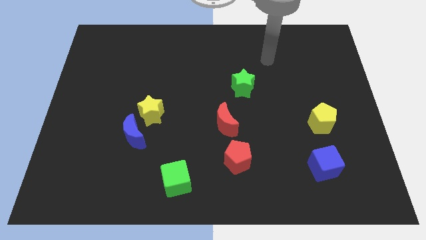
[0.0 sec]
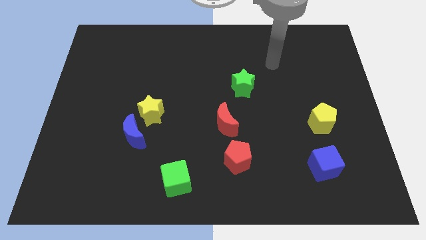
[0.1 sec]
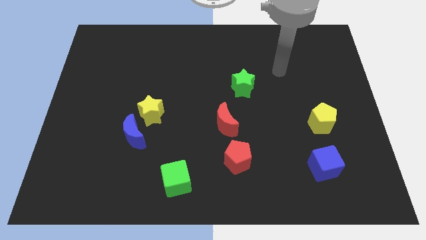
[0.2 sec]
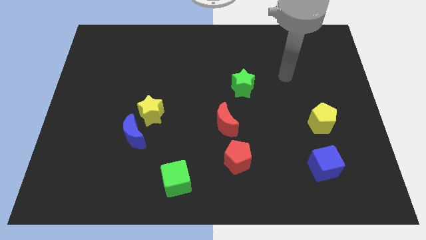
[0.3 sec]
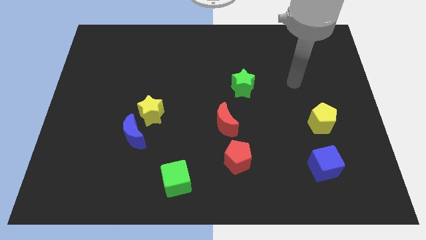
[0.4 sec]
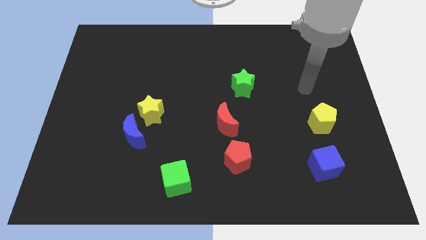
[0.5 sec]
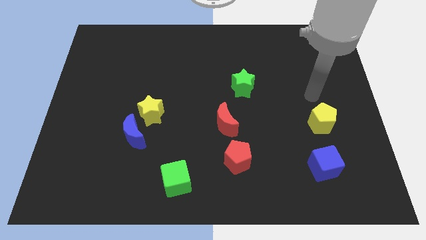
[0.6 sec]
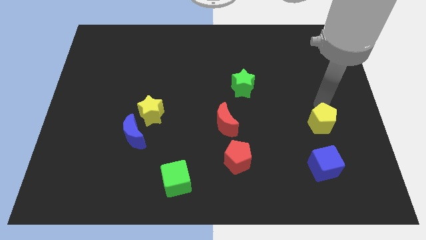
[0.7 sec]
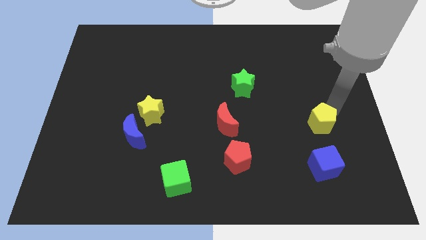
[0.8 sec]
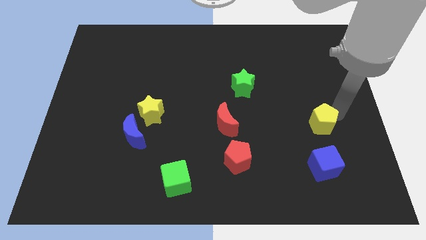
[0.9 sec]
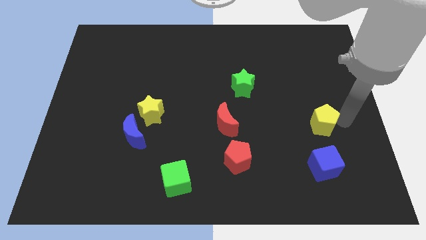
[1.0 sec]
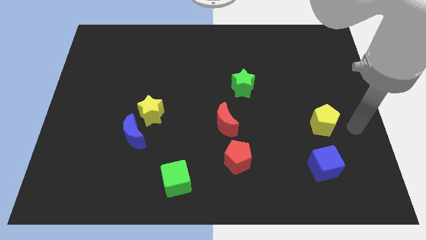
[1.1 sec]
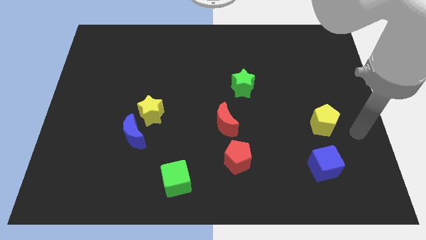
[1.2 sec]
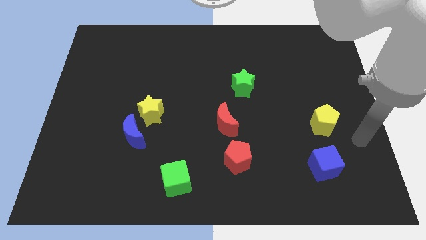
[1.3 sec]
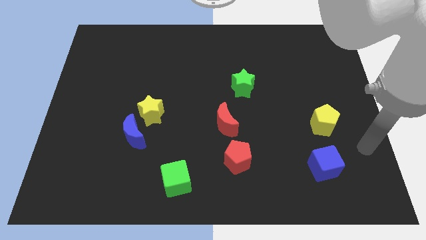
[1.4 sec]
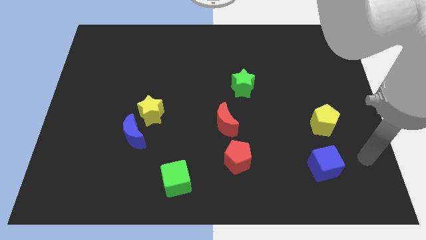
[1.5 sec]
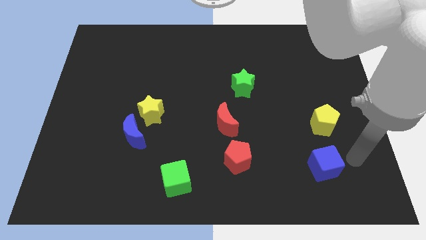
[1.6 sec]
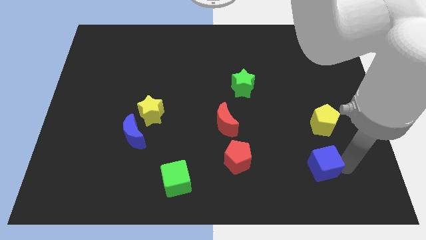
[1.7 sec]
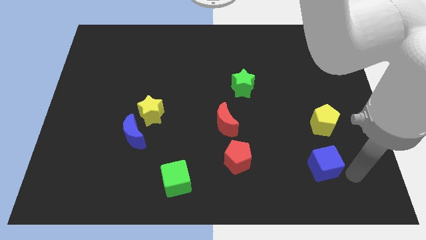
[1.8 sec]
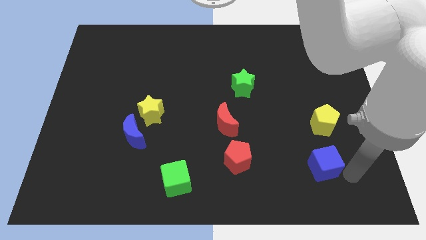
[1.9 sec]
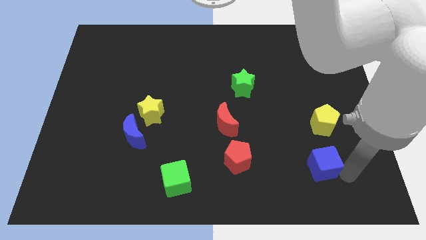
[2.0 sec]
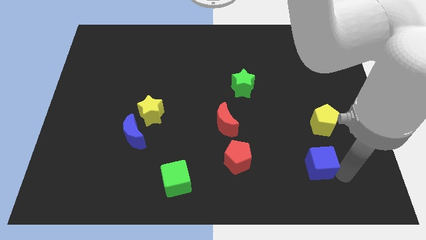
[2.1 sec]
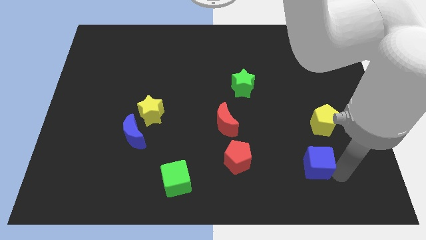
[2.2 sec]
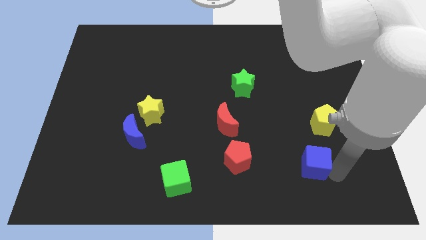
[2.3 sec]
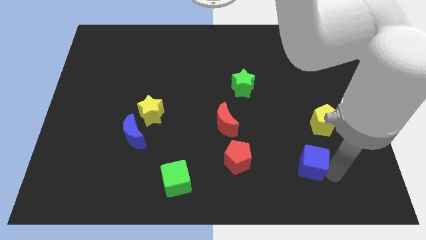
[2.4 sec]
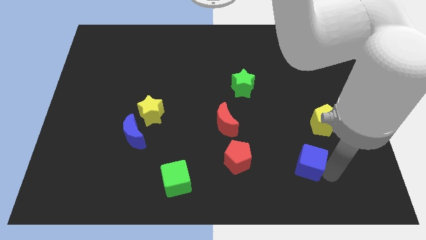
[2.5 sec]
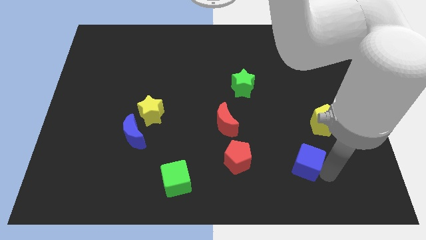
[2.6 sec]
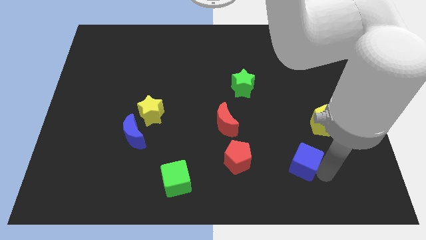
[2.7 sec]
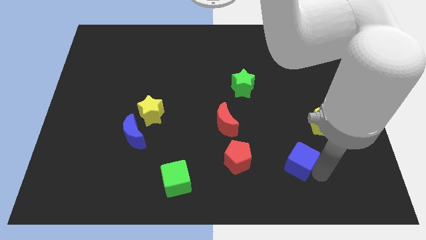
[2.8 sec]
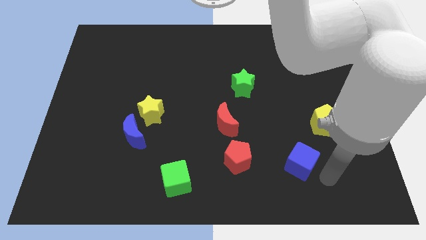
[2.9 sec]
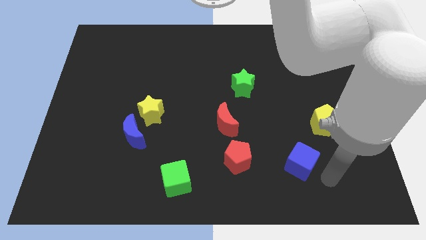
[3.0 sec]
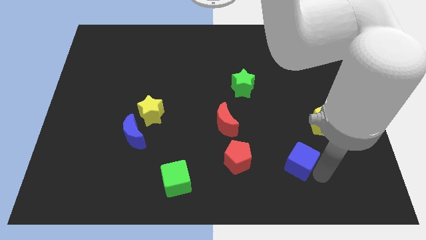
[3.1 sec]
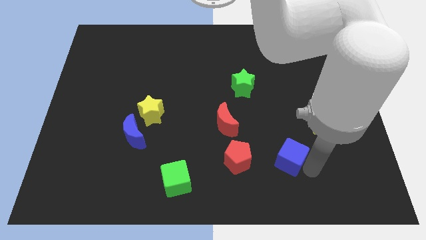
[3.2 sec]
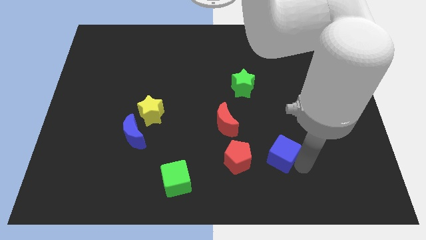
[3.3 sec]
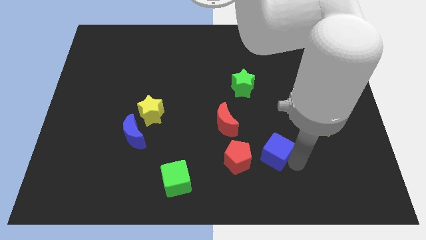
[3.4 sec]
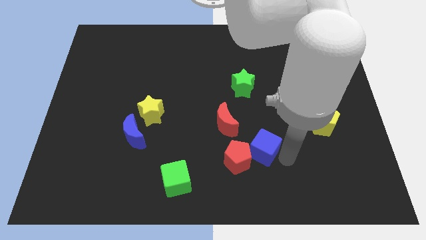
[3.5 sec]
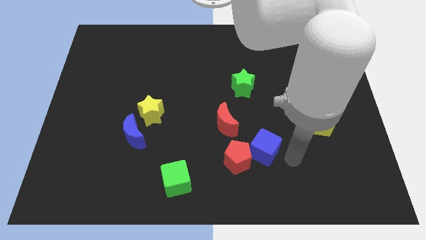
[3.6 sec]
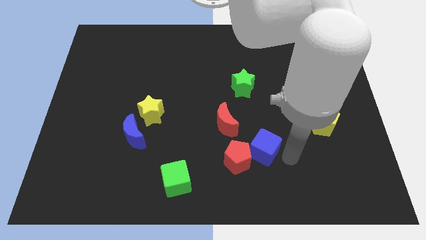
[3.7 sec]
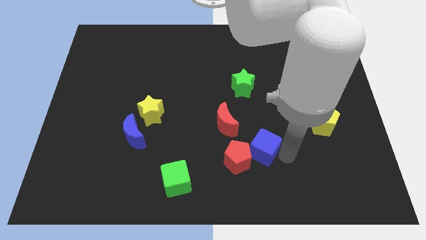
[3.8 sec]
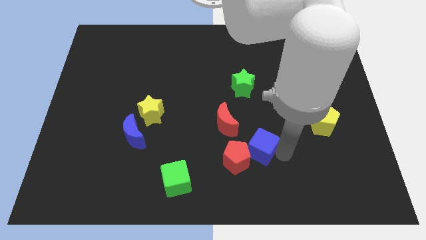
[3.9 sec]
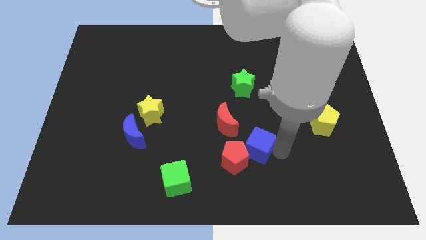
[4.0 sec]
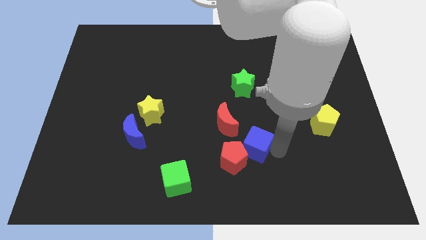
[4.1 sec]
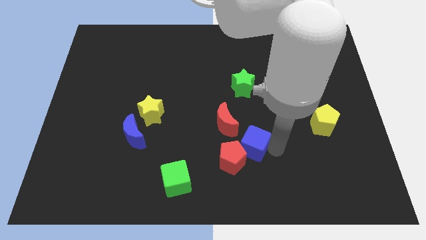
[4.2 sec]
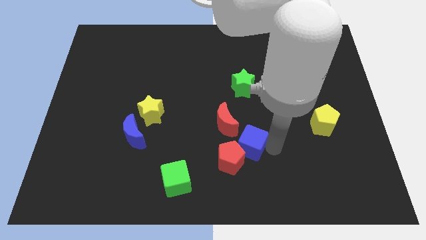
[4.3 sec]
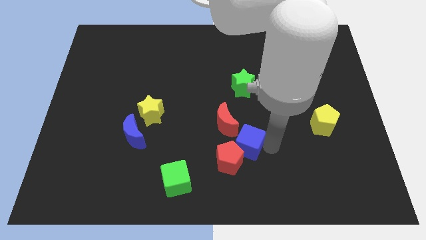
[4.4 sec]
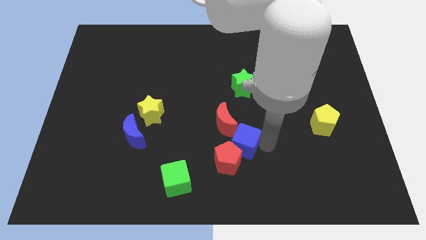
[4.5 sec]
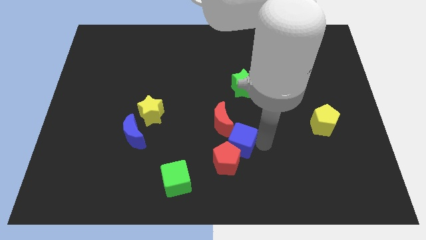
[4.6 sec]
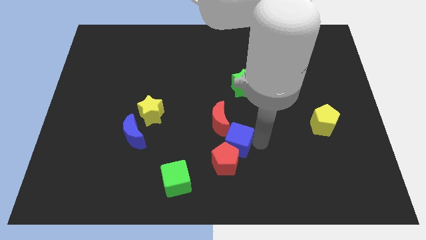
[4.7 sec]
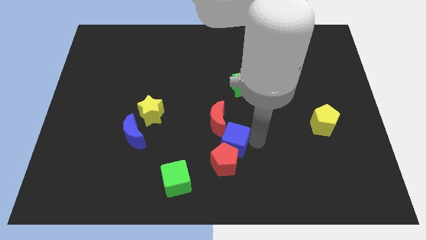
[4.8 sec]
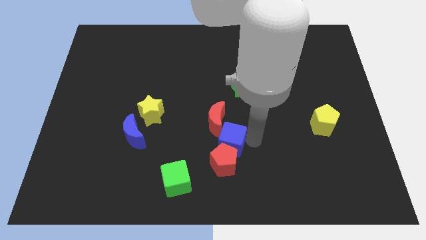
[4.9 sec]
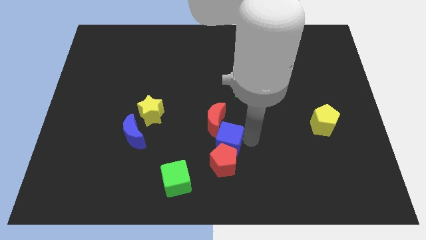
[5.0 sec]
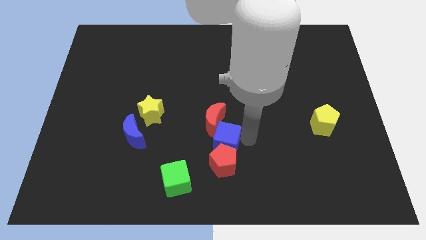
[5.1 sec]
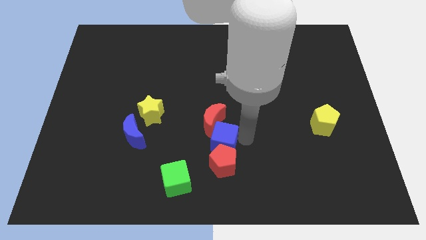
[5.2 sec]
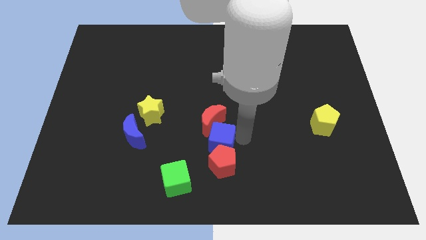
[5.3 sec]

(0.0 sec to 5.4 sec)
push the blue cube to the left

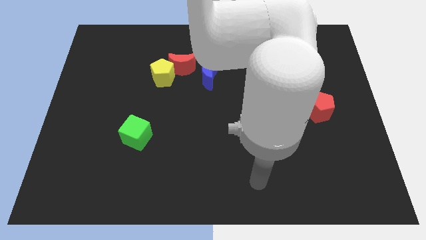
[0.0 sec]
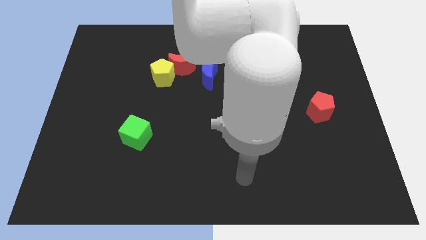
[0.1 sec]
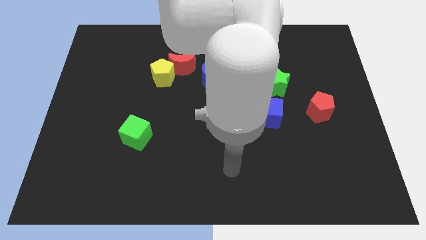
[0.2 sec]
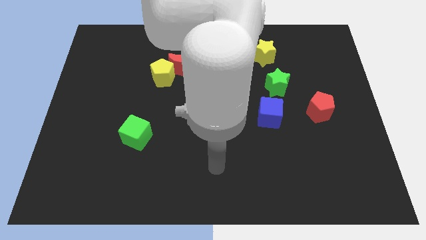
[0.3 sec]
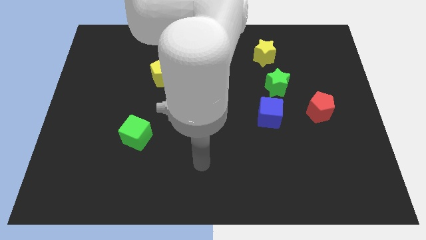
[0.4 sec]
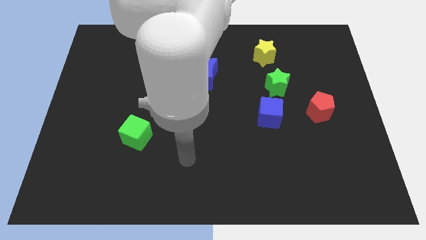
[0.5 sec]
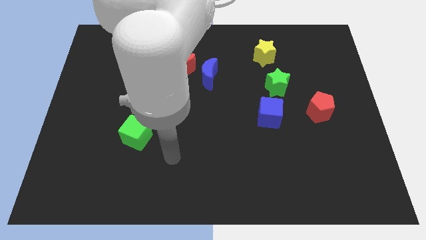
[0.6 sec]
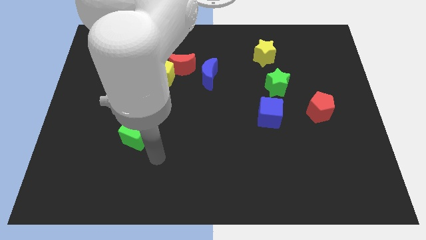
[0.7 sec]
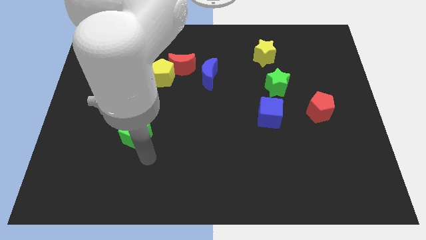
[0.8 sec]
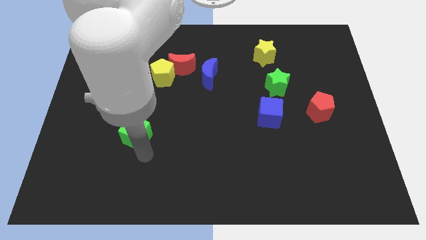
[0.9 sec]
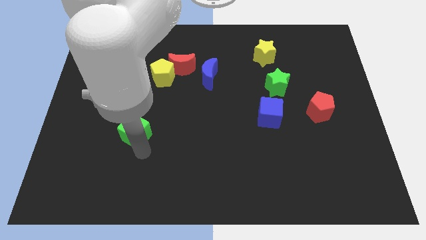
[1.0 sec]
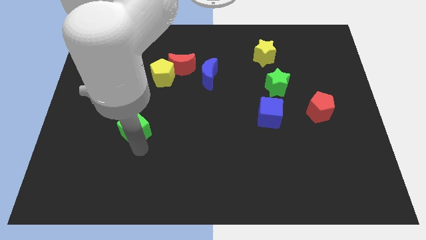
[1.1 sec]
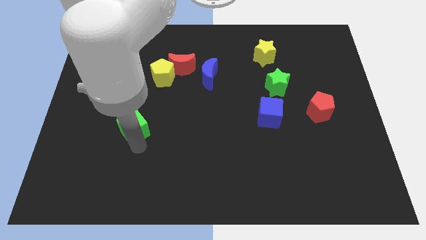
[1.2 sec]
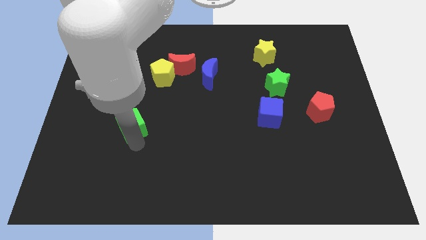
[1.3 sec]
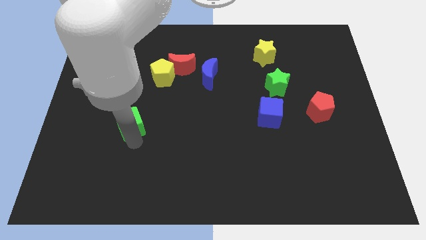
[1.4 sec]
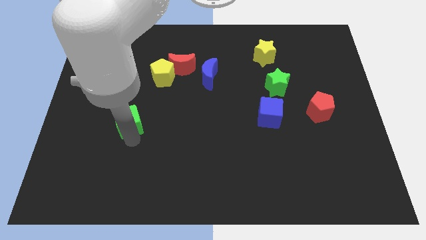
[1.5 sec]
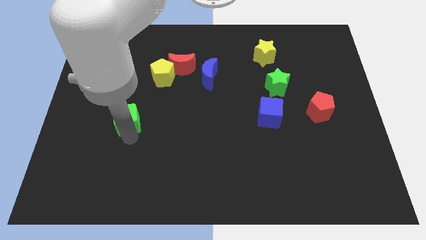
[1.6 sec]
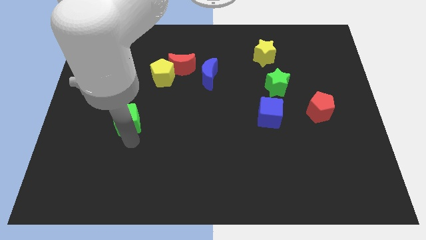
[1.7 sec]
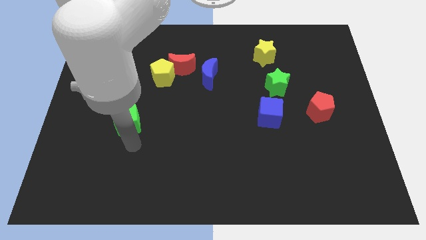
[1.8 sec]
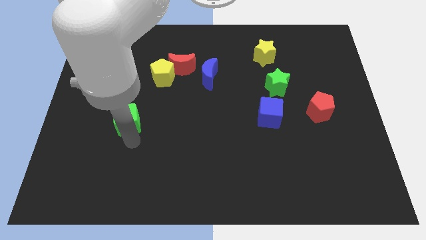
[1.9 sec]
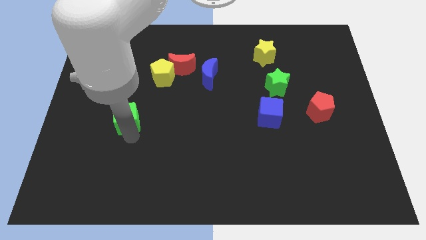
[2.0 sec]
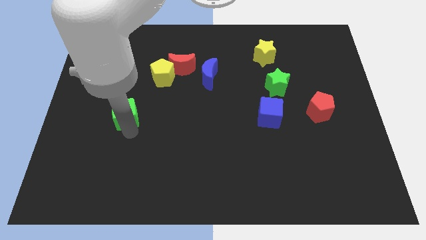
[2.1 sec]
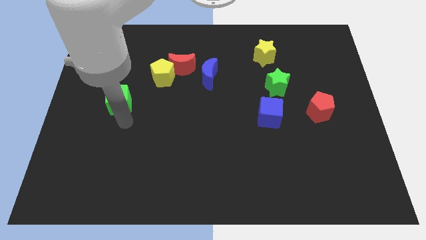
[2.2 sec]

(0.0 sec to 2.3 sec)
push the green cube slightly upwards

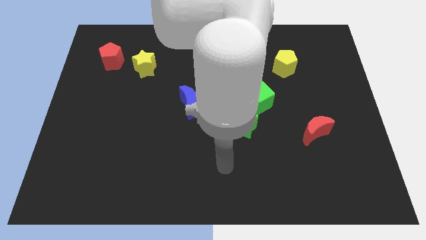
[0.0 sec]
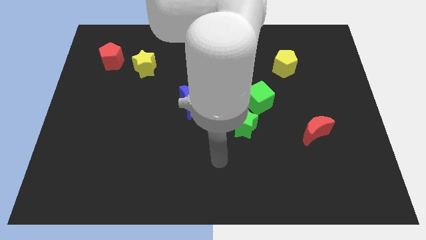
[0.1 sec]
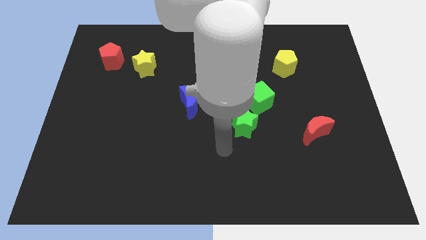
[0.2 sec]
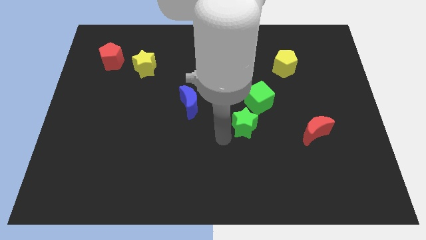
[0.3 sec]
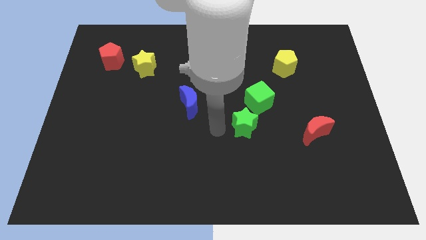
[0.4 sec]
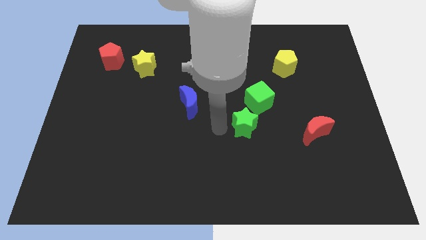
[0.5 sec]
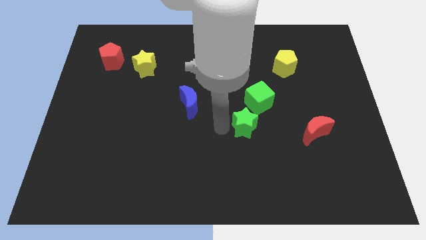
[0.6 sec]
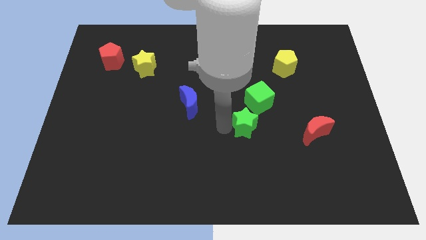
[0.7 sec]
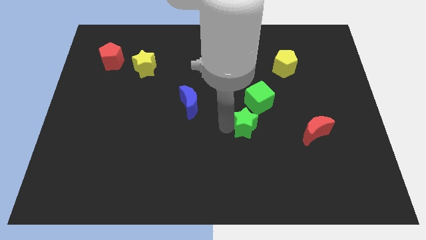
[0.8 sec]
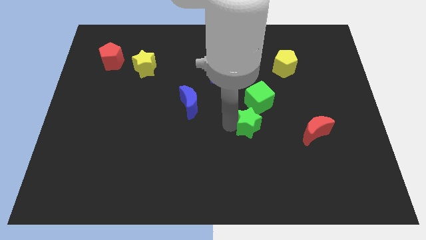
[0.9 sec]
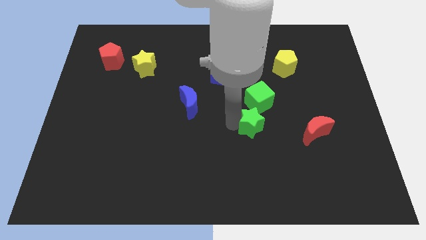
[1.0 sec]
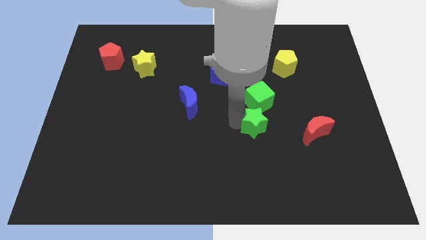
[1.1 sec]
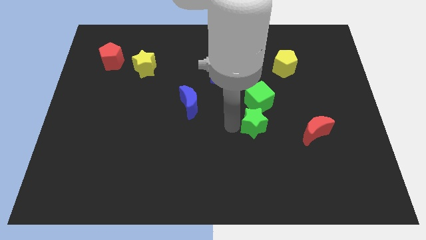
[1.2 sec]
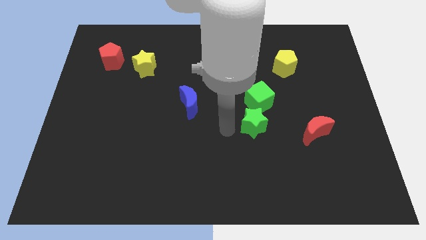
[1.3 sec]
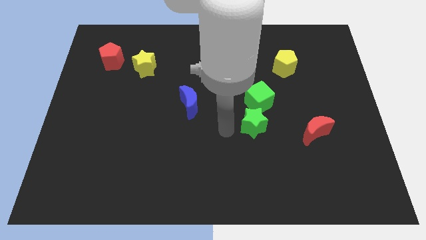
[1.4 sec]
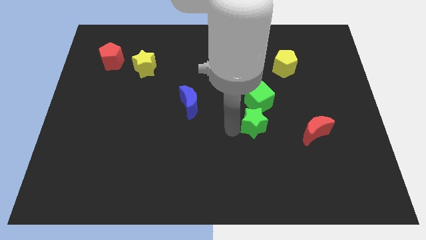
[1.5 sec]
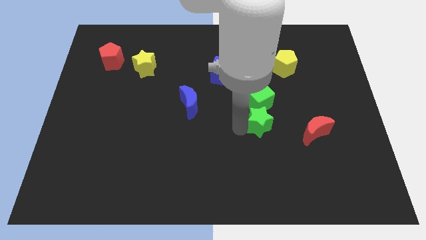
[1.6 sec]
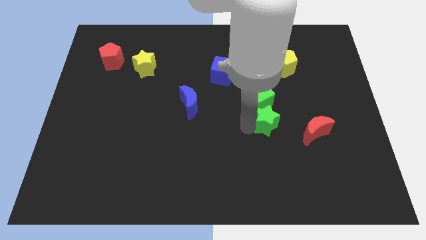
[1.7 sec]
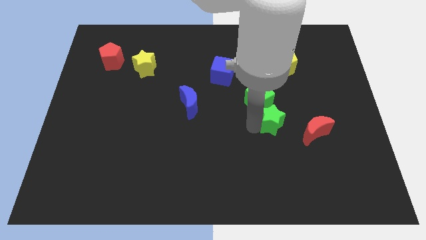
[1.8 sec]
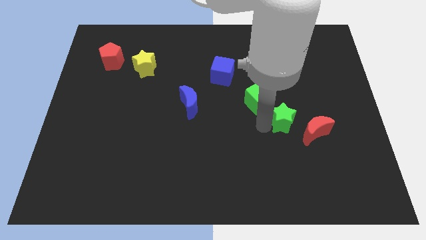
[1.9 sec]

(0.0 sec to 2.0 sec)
slightly slide the green star right
